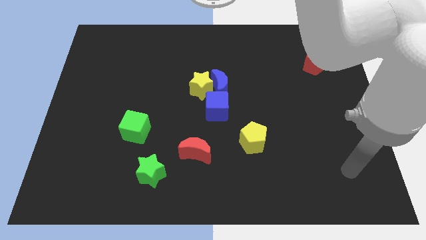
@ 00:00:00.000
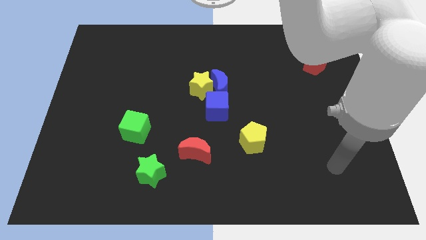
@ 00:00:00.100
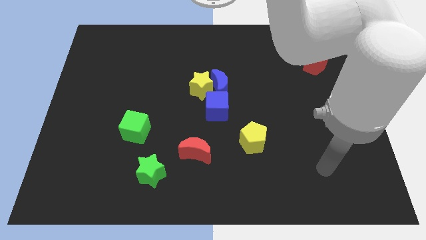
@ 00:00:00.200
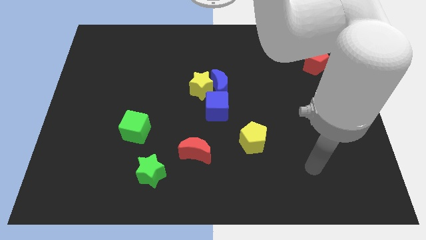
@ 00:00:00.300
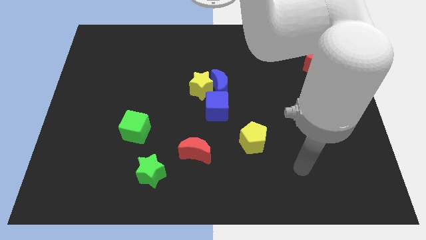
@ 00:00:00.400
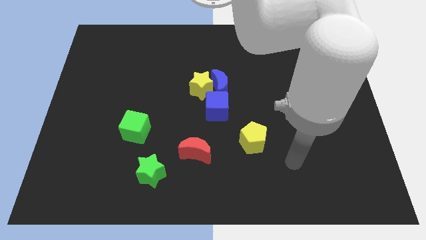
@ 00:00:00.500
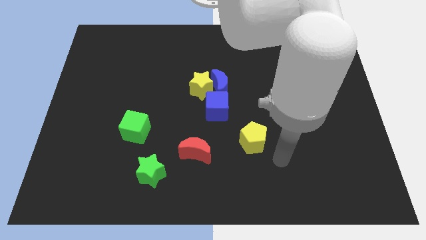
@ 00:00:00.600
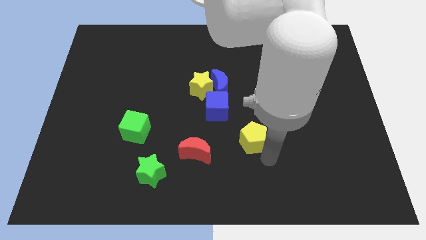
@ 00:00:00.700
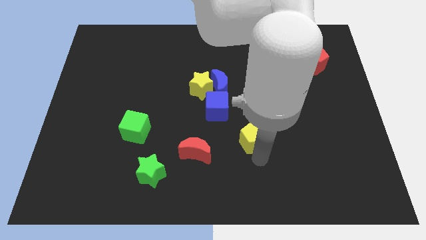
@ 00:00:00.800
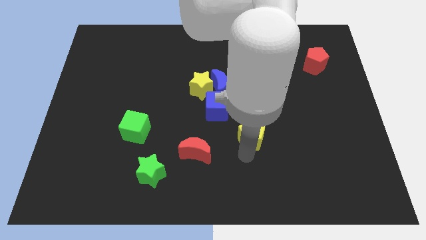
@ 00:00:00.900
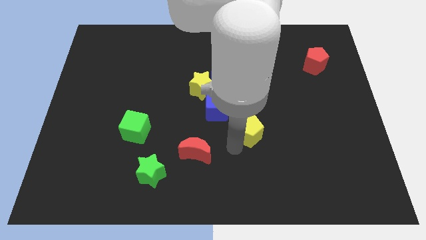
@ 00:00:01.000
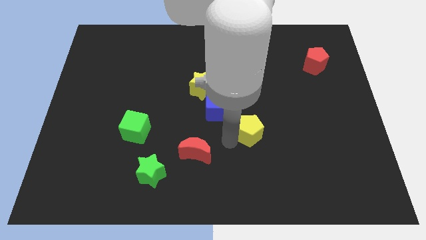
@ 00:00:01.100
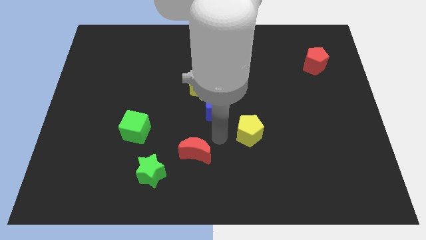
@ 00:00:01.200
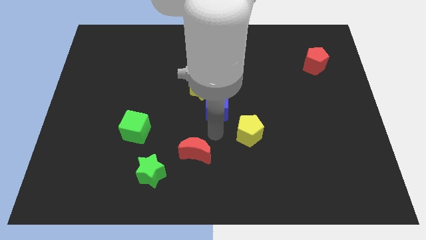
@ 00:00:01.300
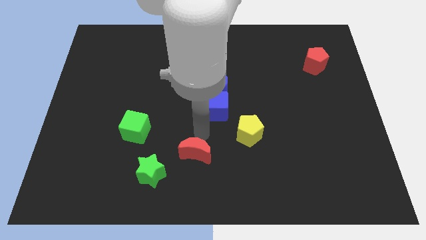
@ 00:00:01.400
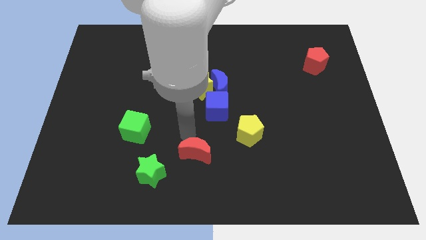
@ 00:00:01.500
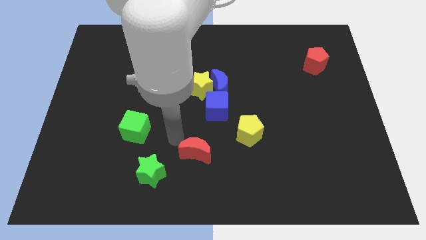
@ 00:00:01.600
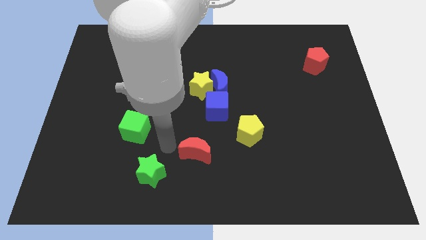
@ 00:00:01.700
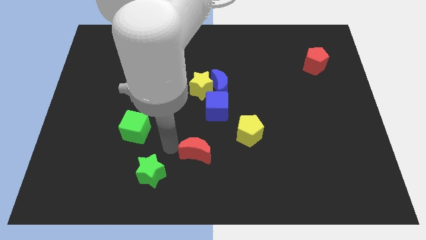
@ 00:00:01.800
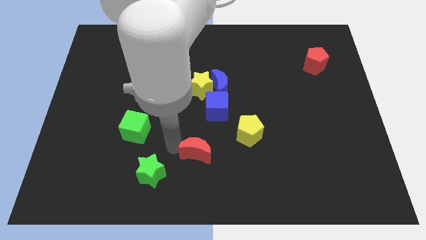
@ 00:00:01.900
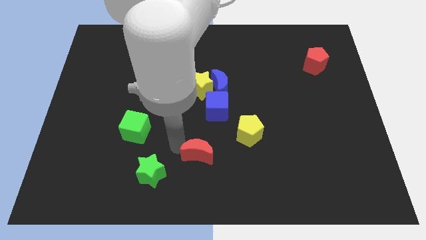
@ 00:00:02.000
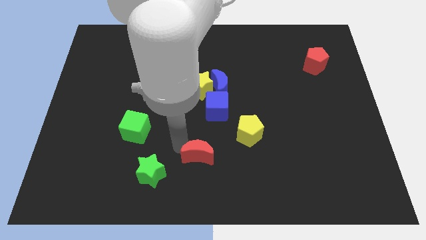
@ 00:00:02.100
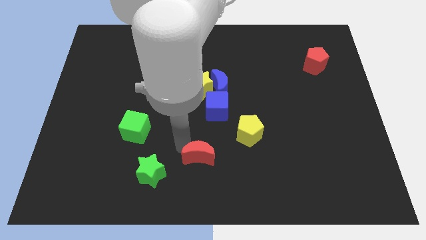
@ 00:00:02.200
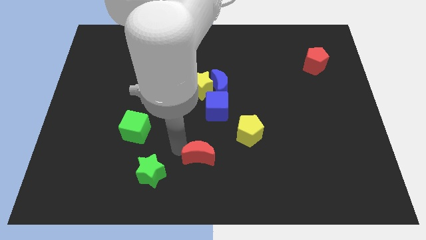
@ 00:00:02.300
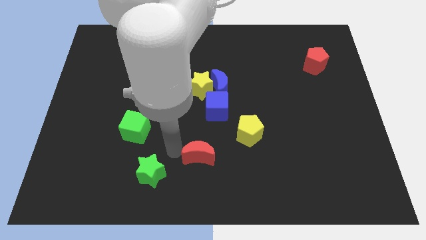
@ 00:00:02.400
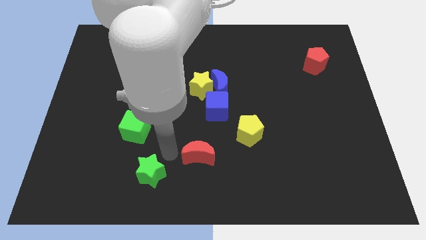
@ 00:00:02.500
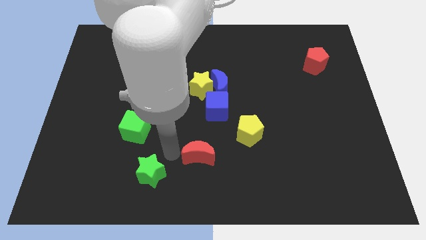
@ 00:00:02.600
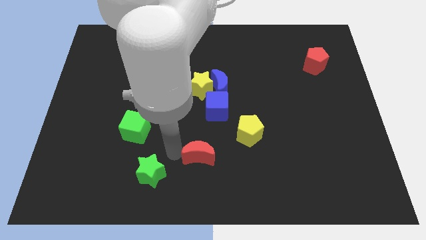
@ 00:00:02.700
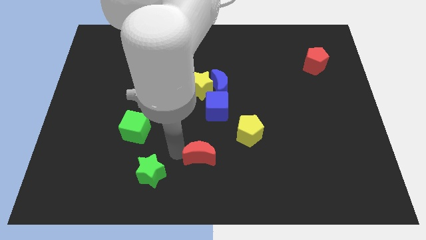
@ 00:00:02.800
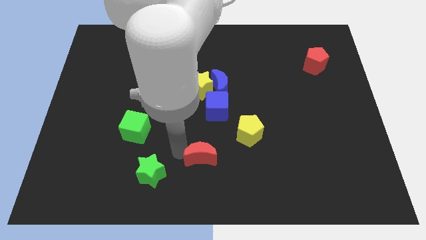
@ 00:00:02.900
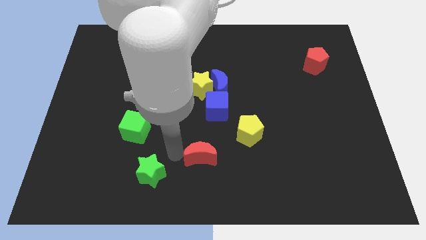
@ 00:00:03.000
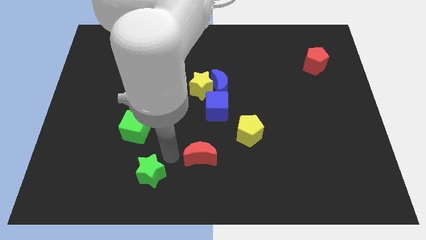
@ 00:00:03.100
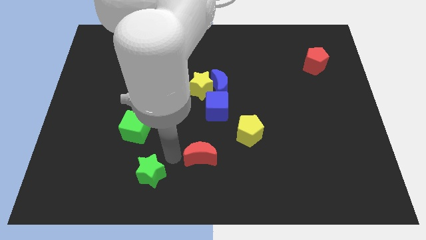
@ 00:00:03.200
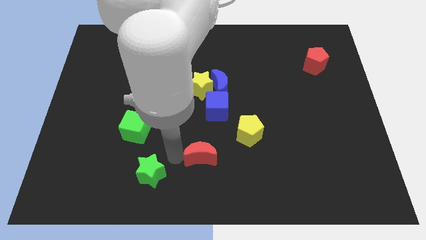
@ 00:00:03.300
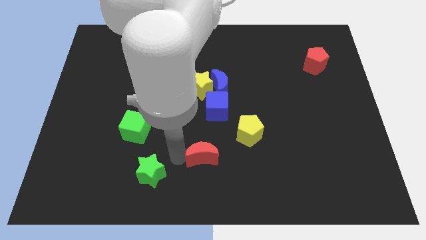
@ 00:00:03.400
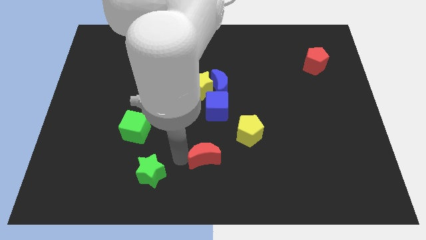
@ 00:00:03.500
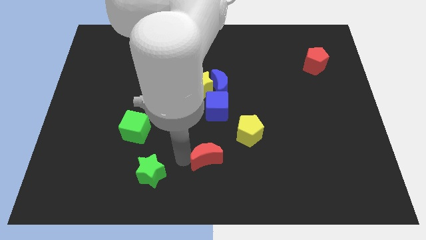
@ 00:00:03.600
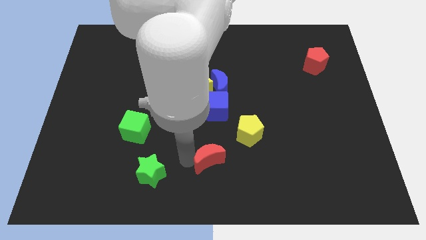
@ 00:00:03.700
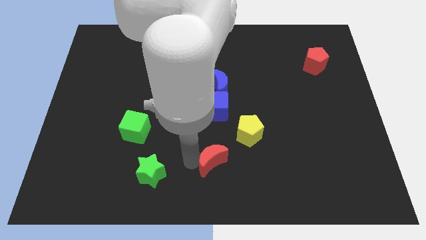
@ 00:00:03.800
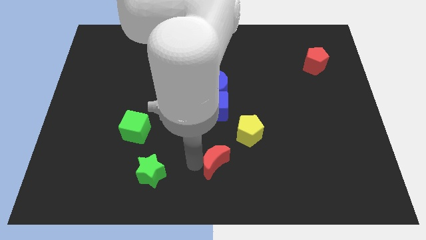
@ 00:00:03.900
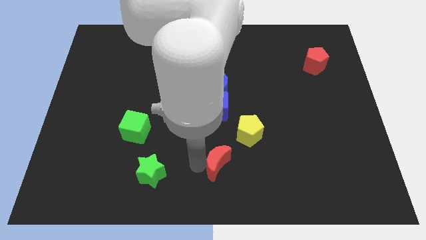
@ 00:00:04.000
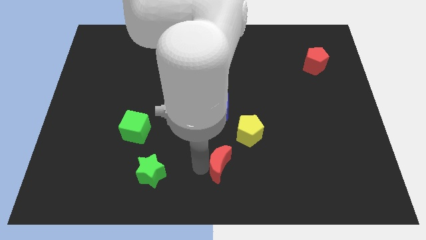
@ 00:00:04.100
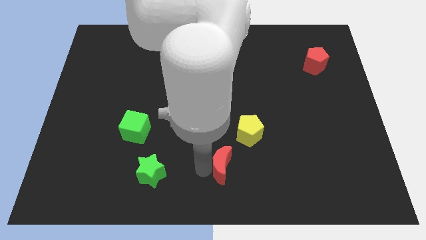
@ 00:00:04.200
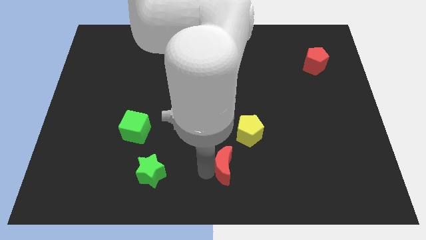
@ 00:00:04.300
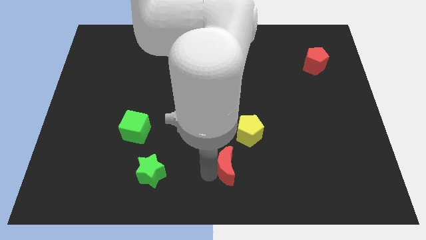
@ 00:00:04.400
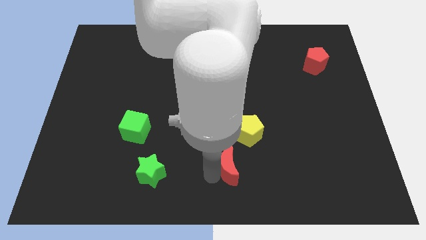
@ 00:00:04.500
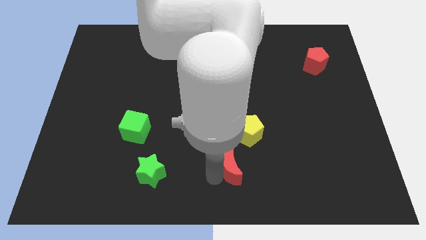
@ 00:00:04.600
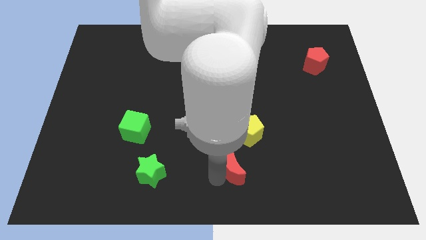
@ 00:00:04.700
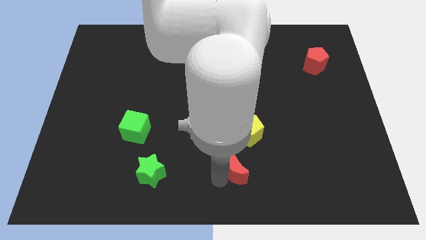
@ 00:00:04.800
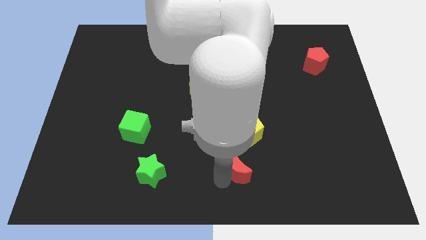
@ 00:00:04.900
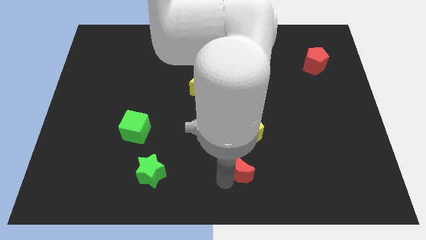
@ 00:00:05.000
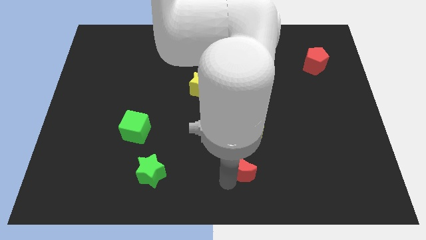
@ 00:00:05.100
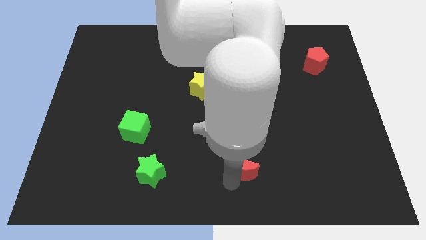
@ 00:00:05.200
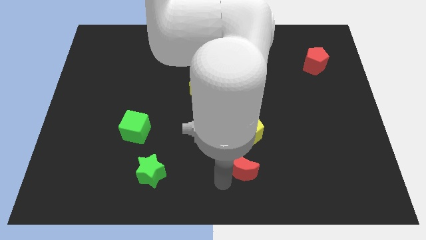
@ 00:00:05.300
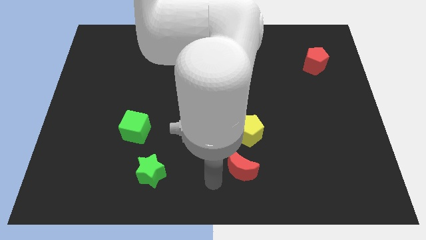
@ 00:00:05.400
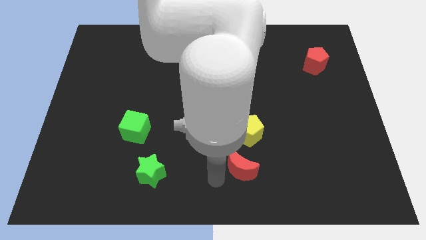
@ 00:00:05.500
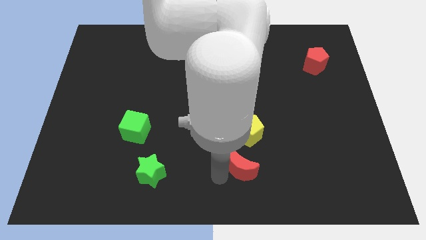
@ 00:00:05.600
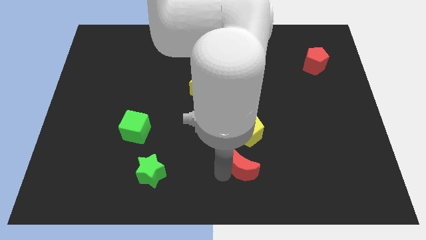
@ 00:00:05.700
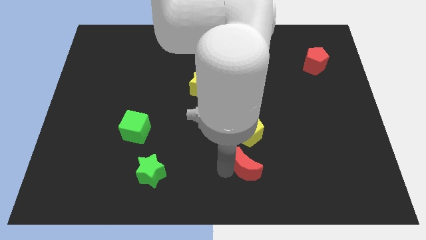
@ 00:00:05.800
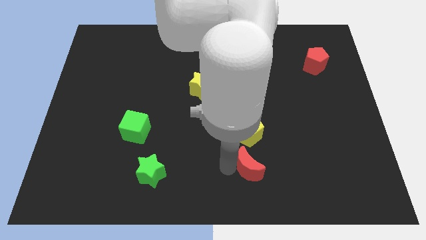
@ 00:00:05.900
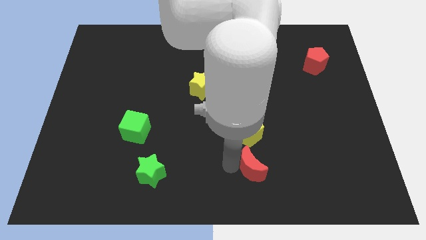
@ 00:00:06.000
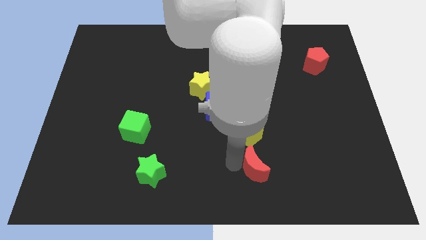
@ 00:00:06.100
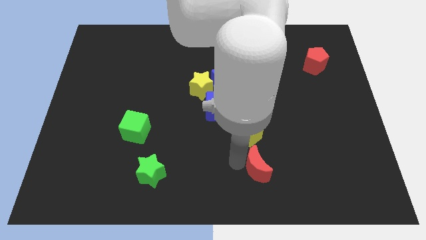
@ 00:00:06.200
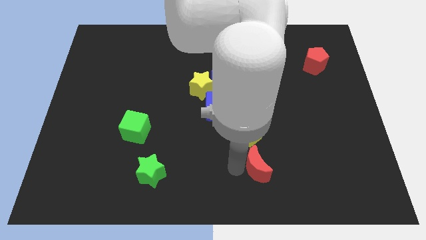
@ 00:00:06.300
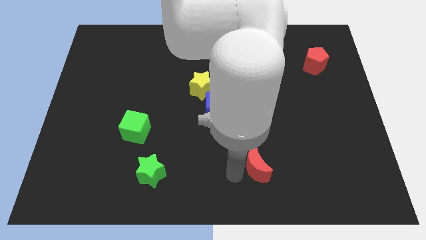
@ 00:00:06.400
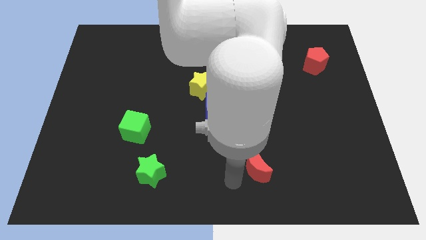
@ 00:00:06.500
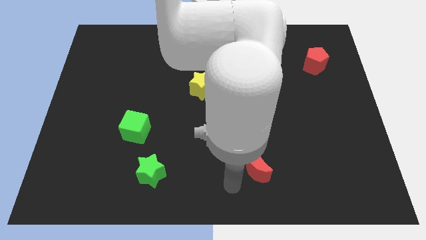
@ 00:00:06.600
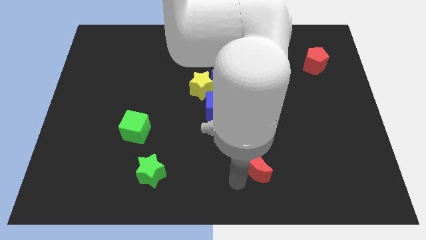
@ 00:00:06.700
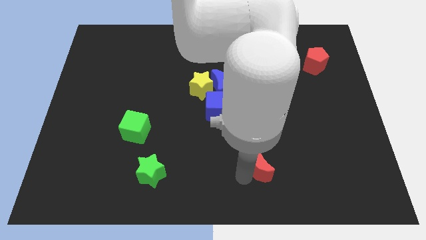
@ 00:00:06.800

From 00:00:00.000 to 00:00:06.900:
push the red moon to the bottom right of the yellow pentagon
